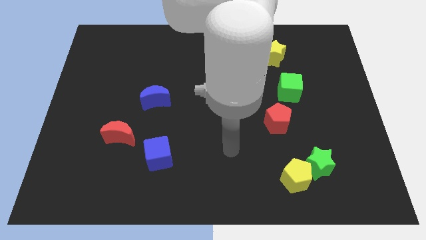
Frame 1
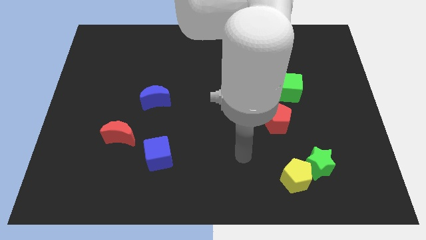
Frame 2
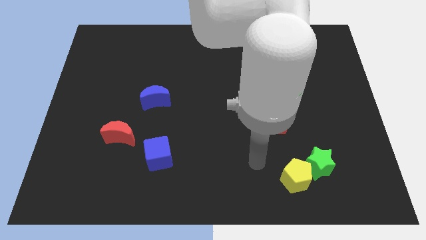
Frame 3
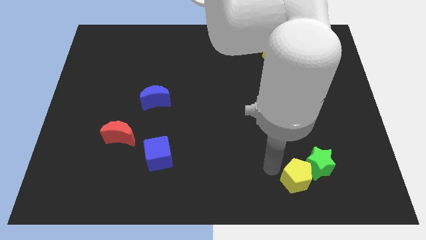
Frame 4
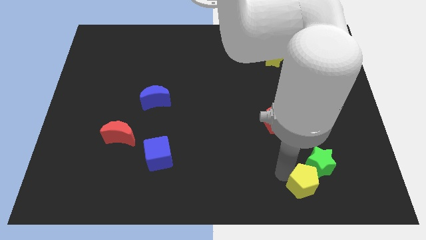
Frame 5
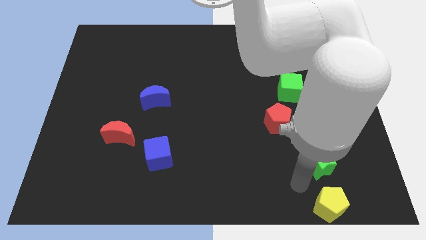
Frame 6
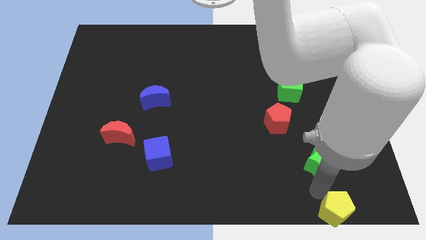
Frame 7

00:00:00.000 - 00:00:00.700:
pull the green star apart from the yellow pentagon

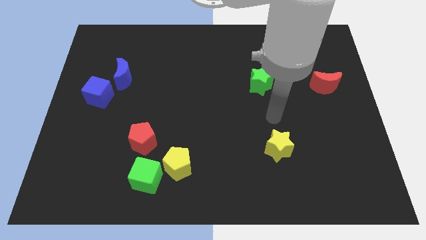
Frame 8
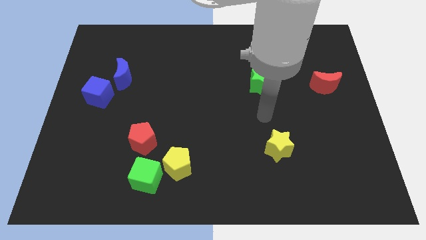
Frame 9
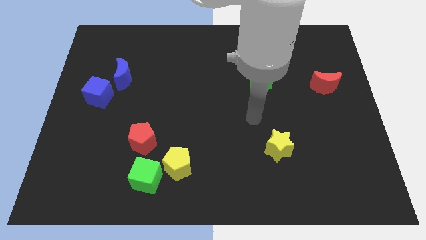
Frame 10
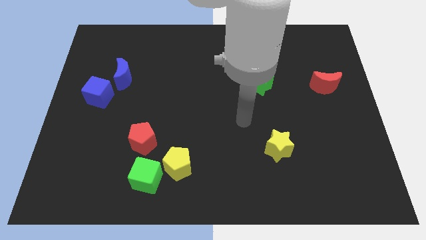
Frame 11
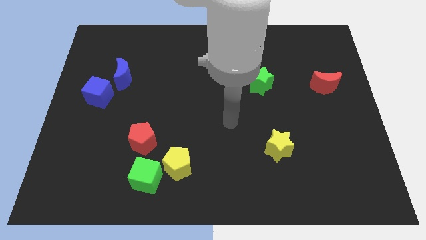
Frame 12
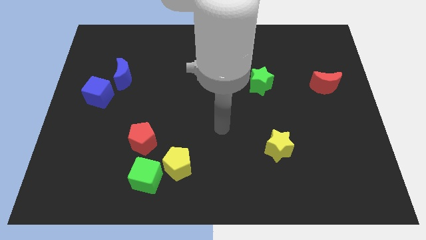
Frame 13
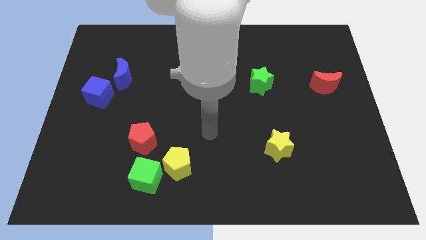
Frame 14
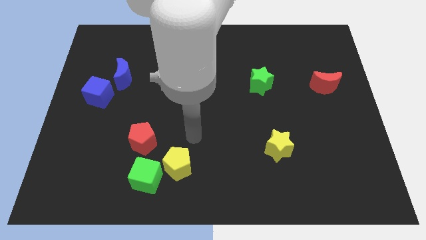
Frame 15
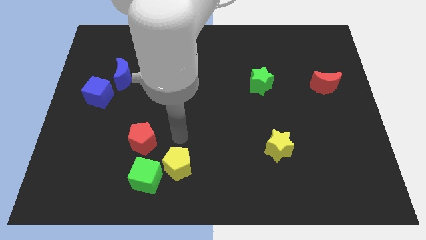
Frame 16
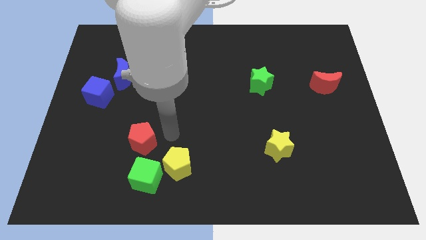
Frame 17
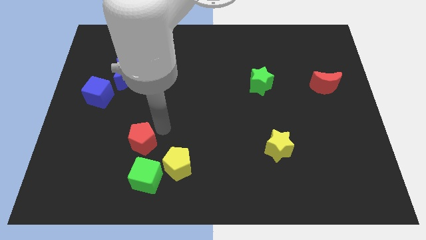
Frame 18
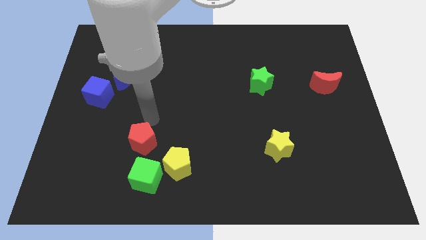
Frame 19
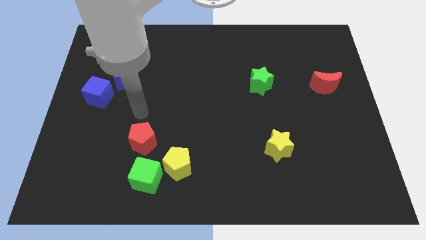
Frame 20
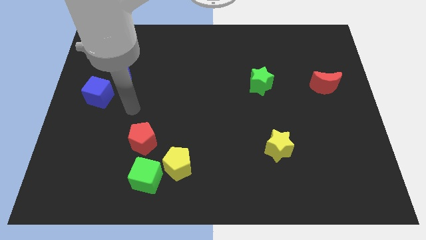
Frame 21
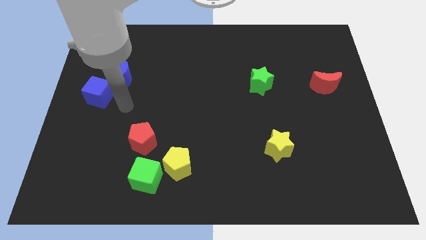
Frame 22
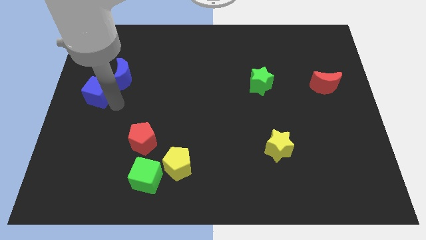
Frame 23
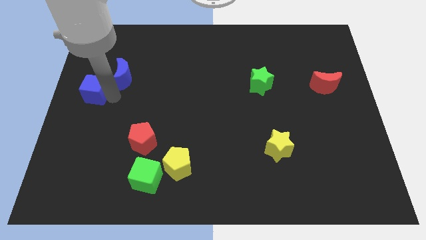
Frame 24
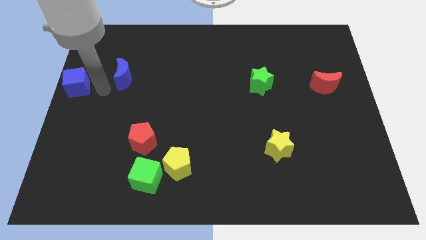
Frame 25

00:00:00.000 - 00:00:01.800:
pull the blue moon apart from the blue cube

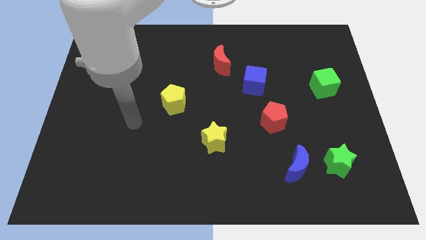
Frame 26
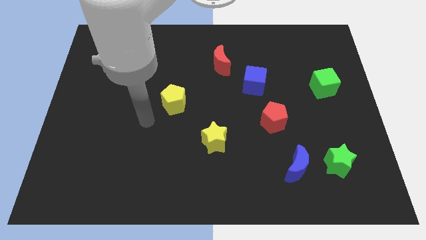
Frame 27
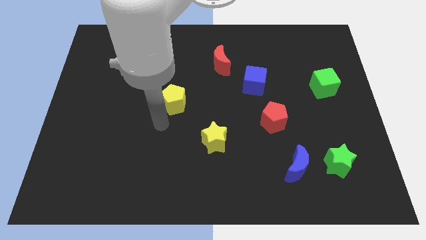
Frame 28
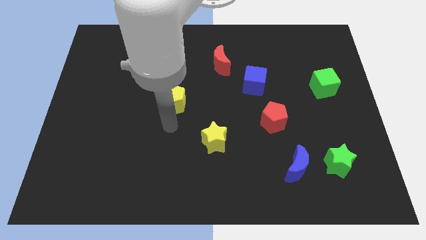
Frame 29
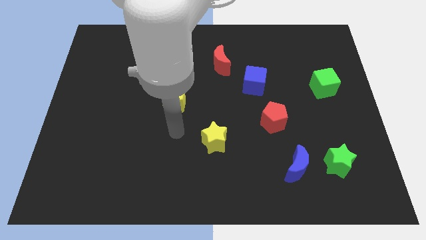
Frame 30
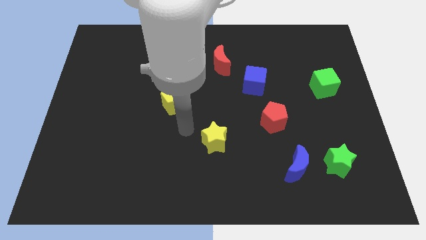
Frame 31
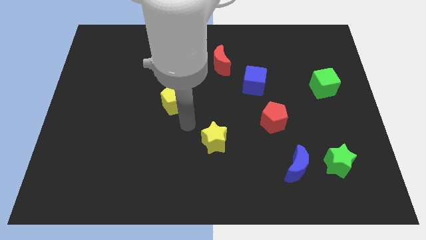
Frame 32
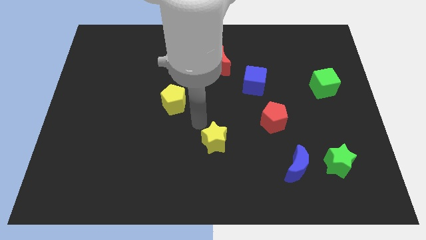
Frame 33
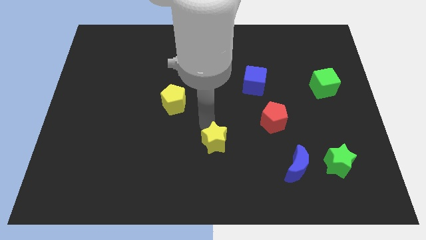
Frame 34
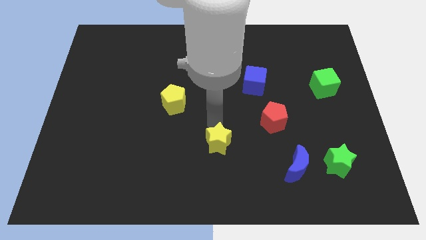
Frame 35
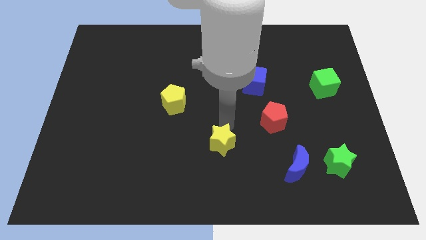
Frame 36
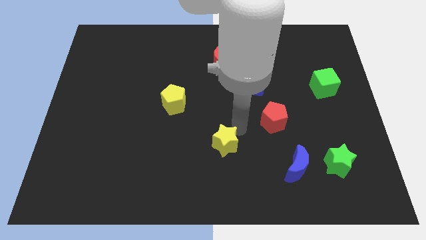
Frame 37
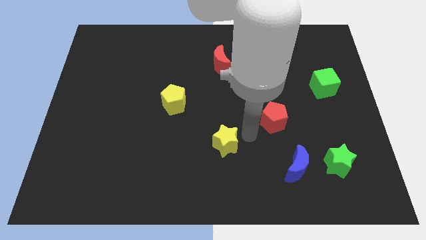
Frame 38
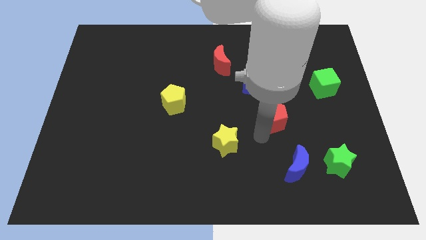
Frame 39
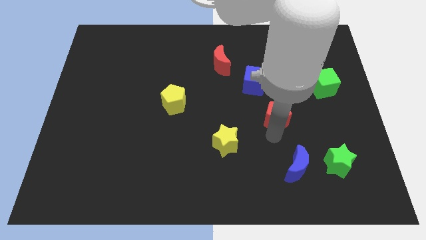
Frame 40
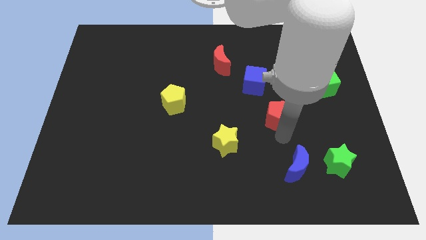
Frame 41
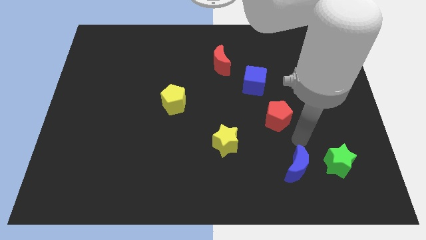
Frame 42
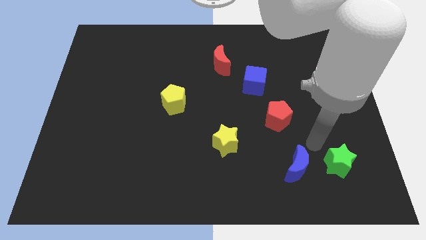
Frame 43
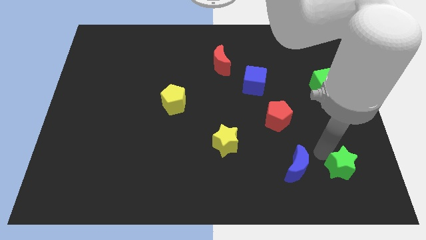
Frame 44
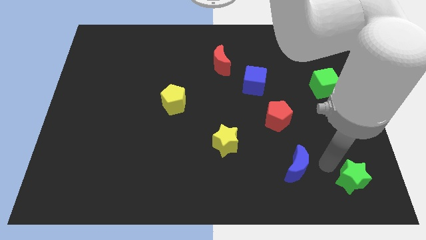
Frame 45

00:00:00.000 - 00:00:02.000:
pull the blue moon apart from the green star

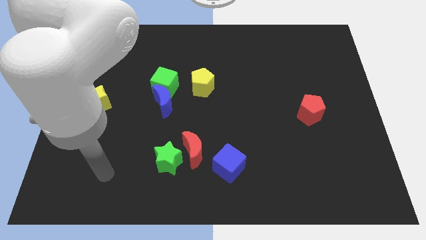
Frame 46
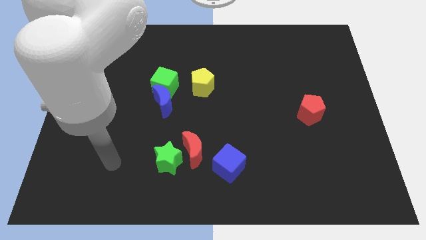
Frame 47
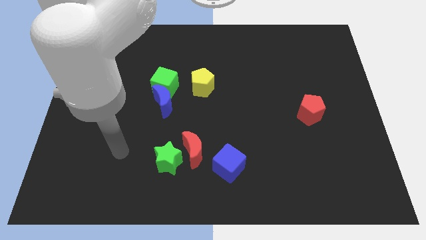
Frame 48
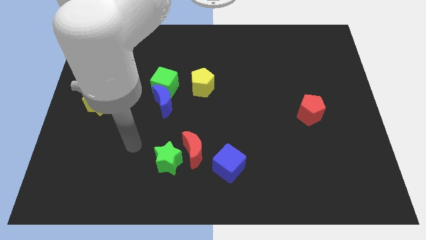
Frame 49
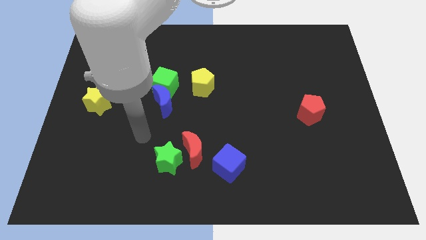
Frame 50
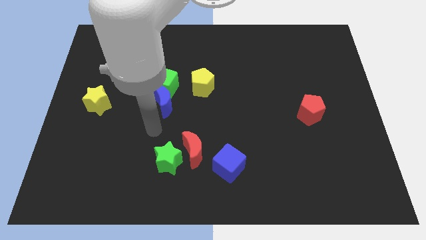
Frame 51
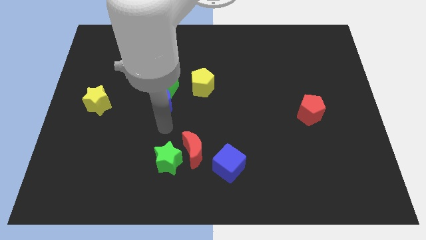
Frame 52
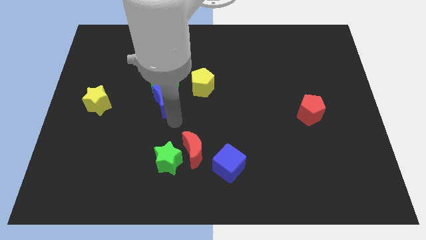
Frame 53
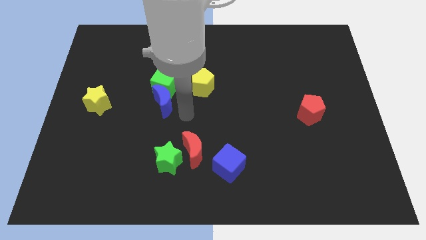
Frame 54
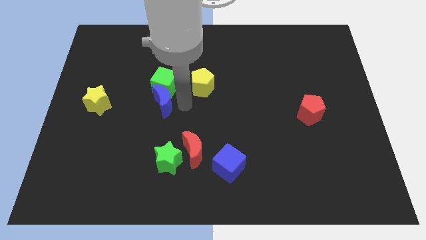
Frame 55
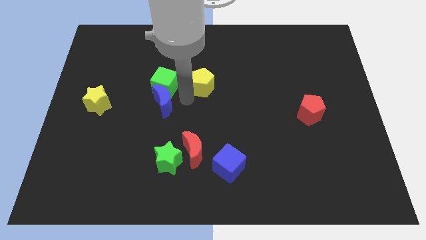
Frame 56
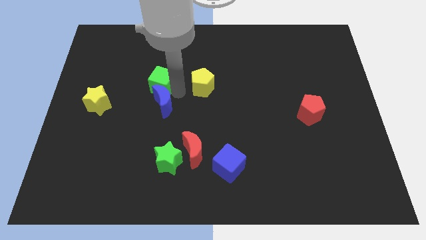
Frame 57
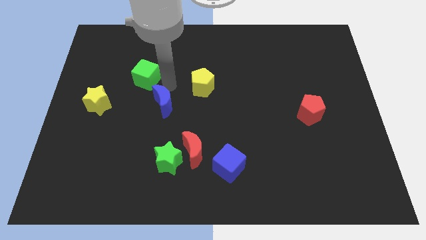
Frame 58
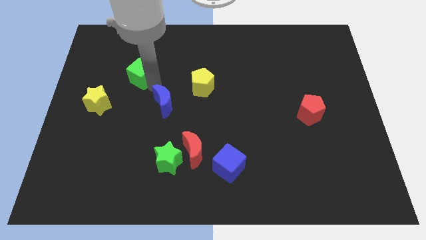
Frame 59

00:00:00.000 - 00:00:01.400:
move the blue moon away from the green cube

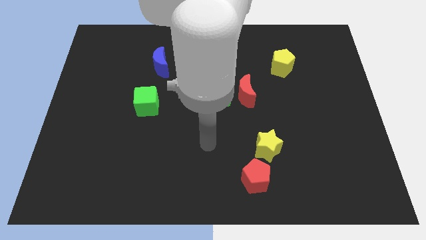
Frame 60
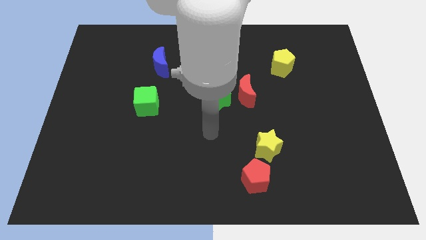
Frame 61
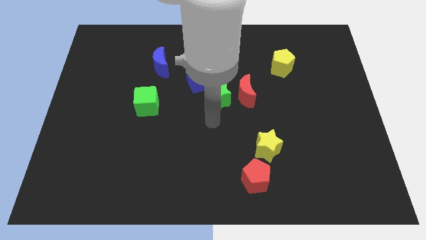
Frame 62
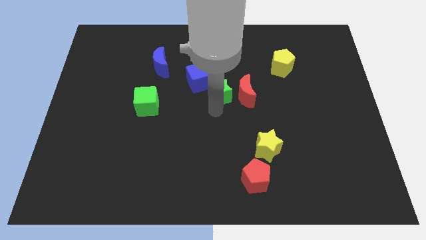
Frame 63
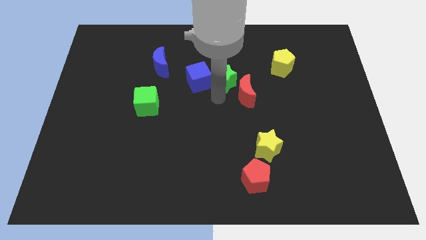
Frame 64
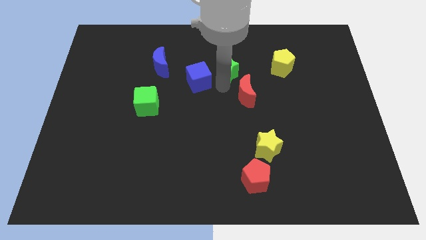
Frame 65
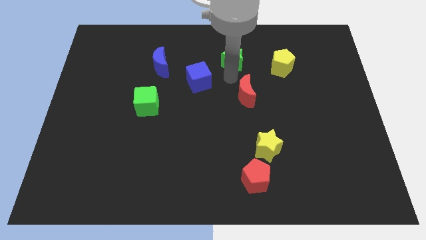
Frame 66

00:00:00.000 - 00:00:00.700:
pull the red moon apart from the green star

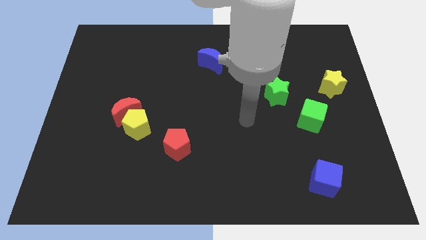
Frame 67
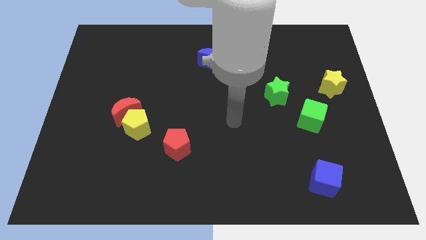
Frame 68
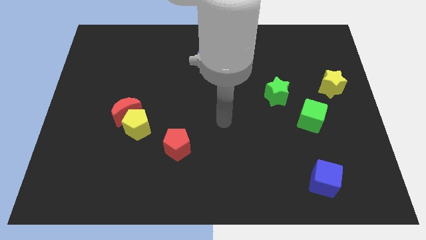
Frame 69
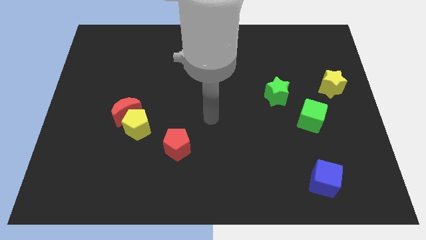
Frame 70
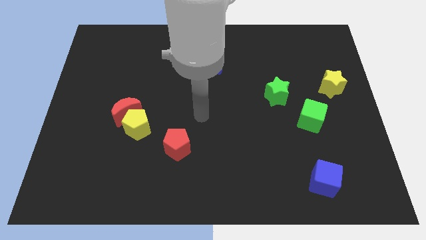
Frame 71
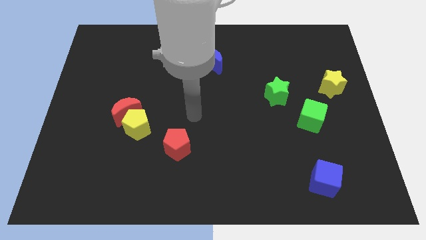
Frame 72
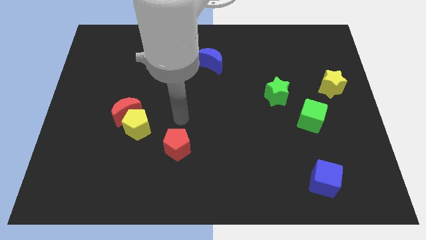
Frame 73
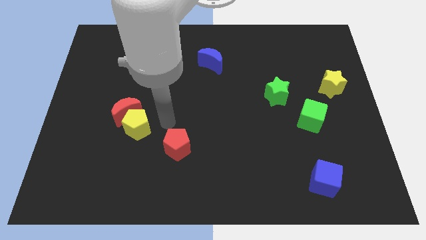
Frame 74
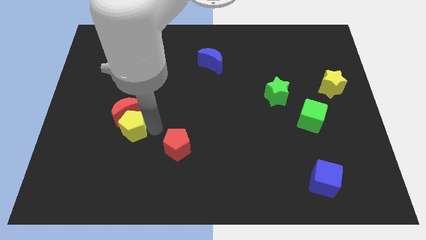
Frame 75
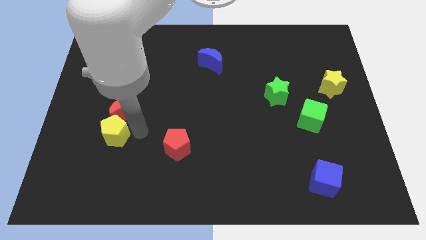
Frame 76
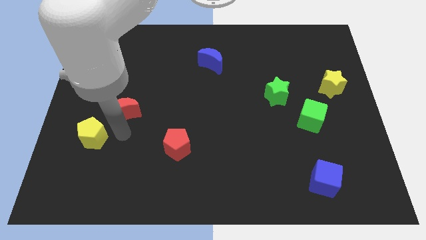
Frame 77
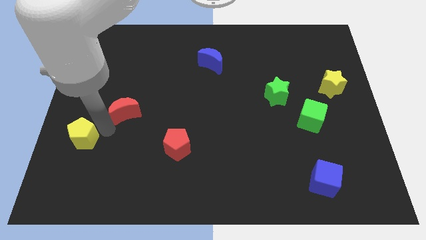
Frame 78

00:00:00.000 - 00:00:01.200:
move the red moon away from the yellow pentagon

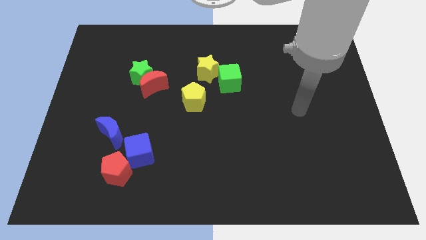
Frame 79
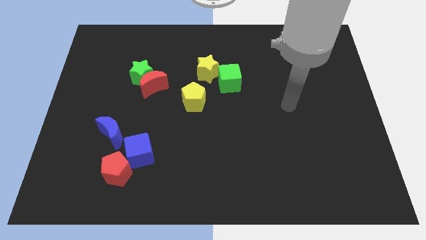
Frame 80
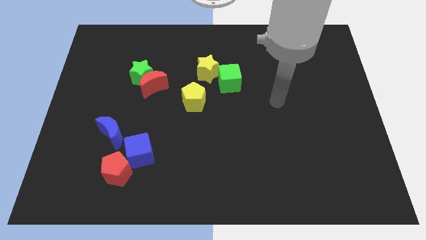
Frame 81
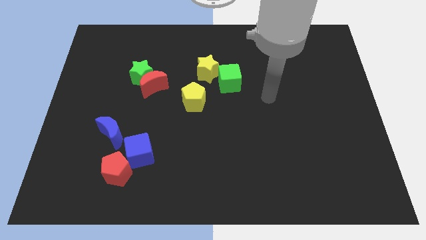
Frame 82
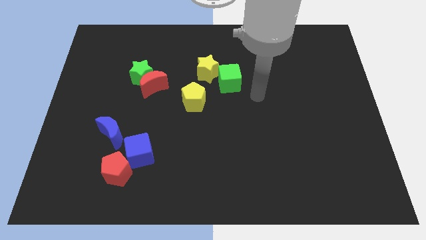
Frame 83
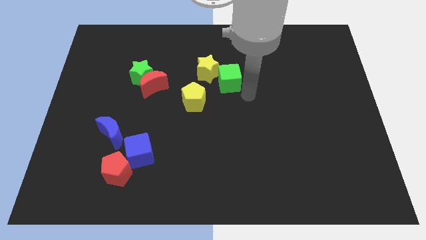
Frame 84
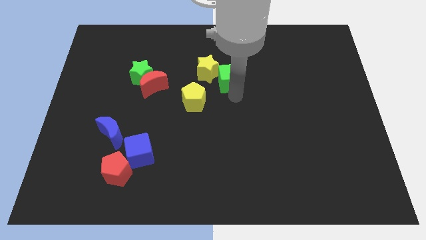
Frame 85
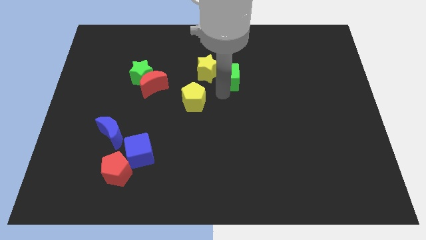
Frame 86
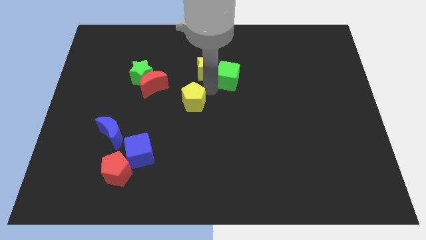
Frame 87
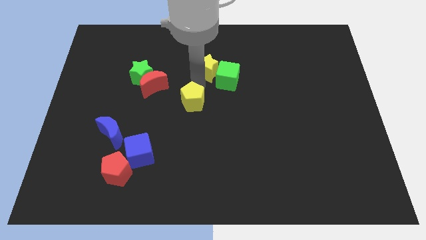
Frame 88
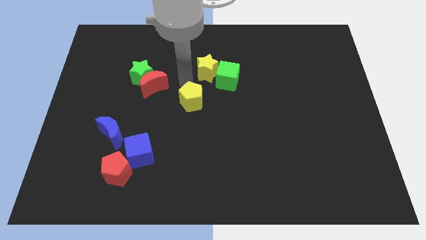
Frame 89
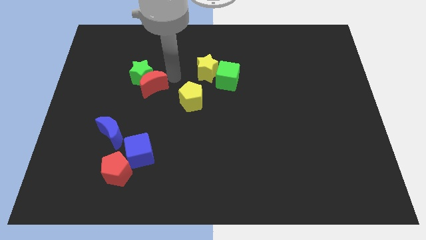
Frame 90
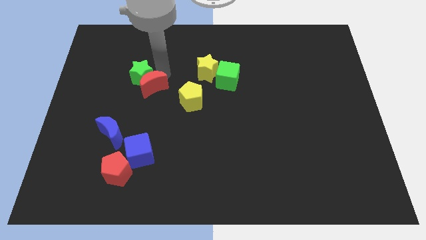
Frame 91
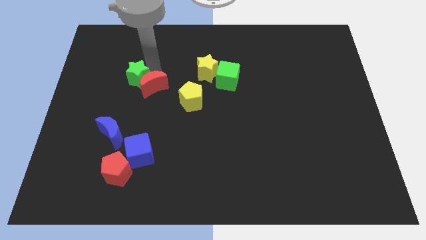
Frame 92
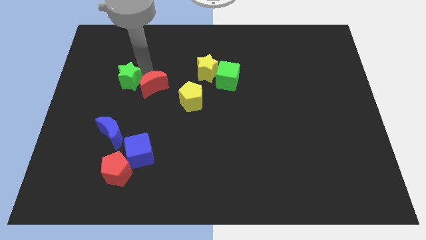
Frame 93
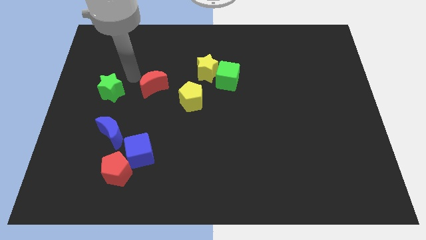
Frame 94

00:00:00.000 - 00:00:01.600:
move the red moon away from the green star
